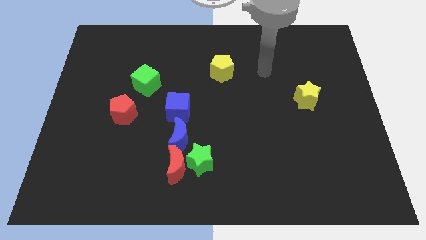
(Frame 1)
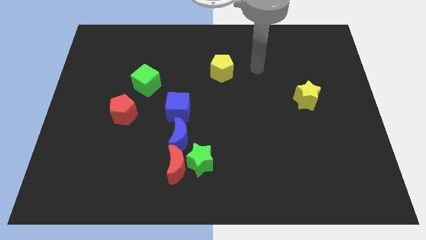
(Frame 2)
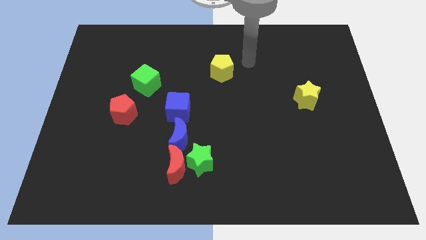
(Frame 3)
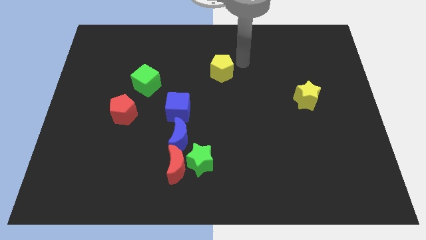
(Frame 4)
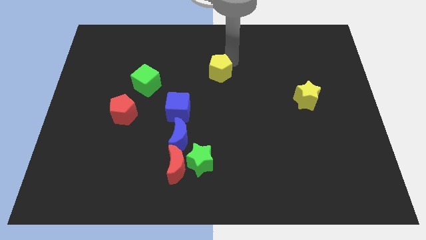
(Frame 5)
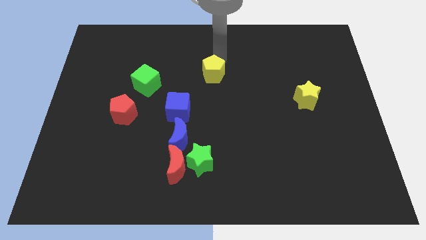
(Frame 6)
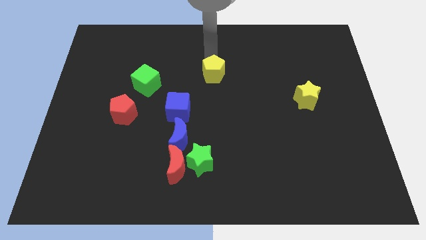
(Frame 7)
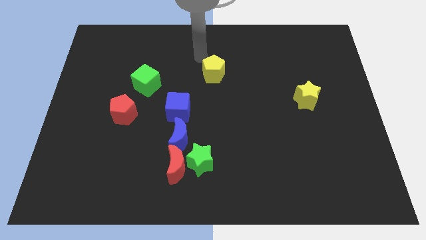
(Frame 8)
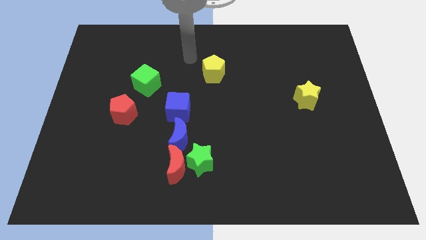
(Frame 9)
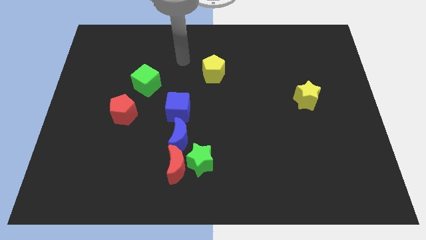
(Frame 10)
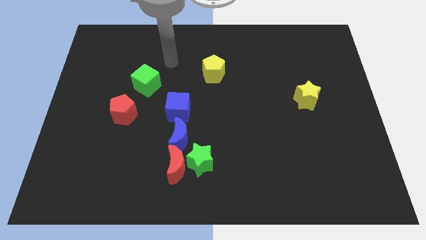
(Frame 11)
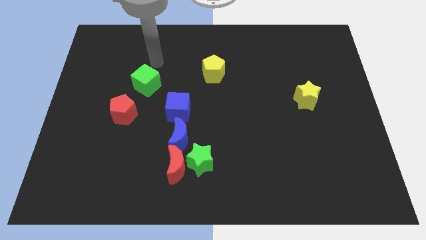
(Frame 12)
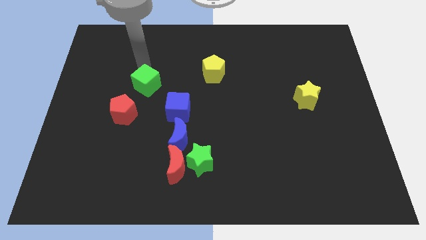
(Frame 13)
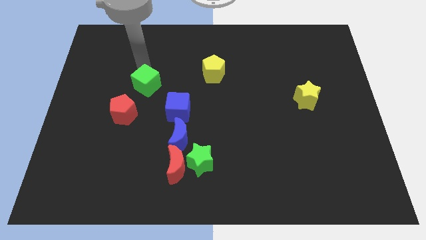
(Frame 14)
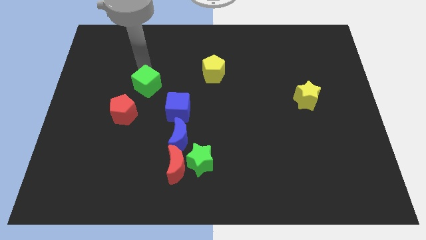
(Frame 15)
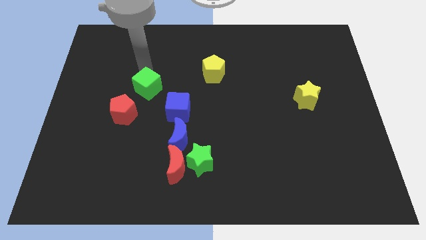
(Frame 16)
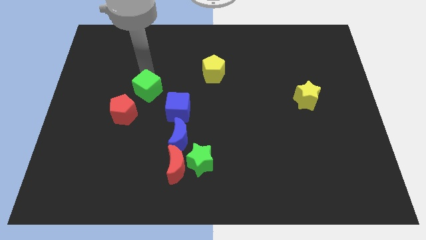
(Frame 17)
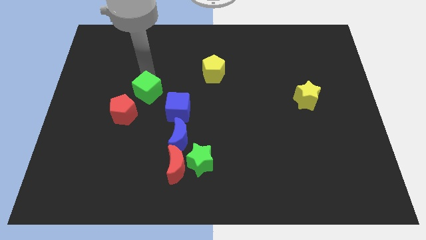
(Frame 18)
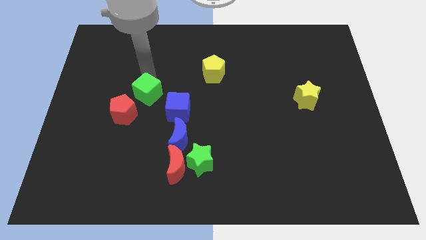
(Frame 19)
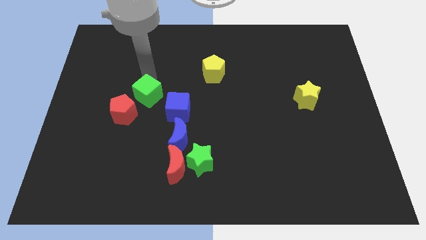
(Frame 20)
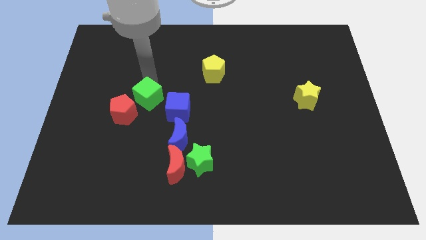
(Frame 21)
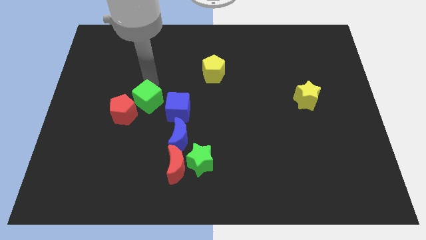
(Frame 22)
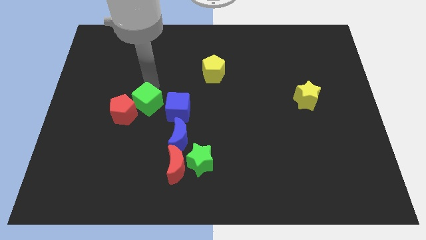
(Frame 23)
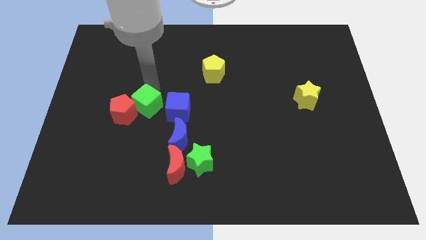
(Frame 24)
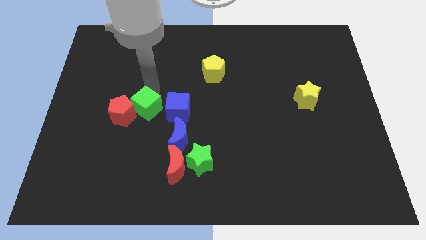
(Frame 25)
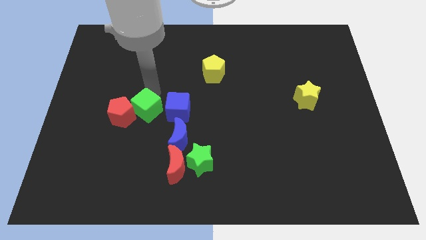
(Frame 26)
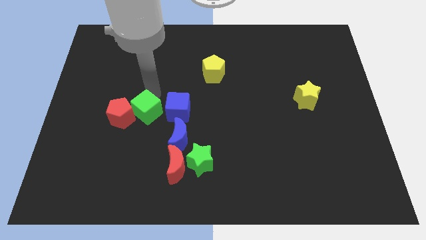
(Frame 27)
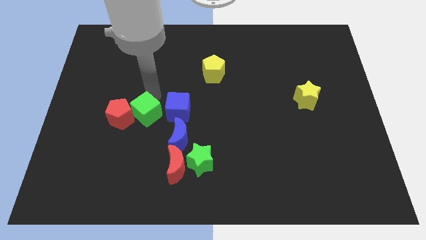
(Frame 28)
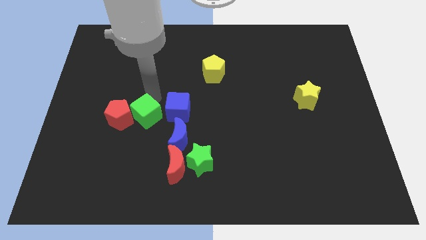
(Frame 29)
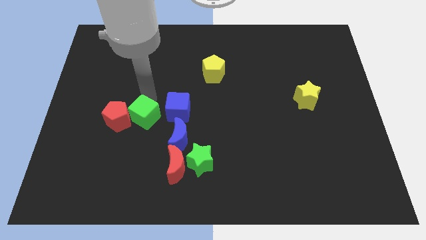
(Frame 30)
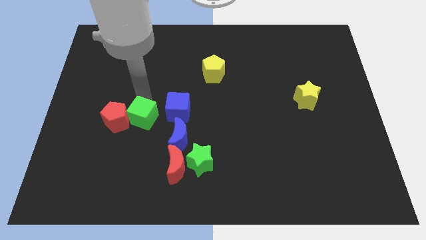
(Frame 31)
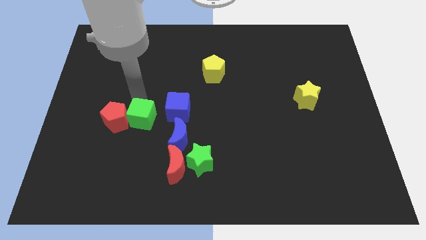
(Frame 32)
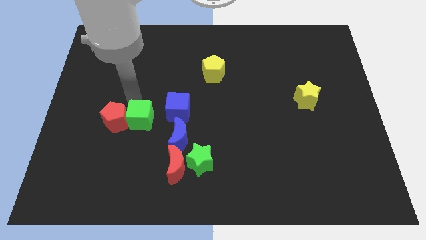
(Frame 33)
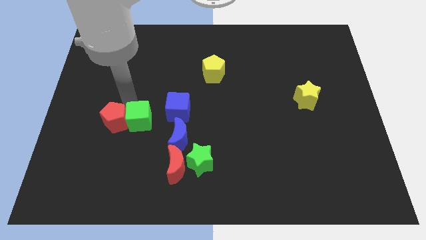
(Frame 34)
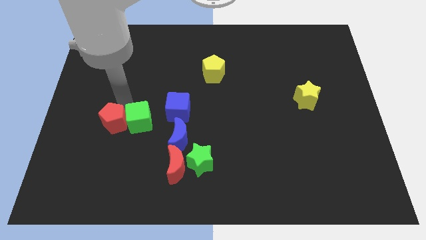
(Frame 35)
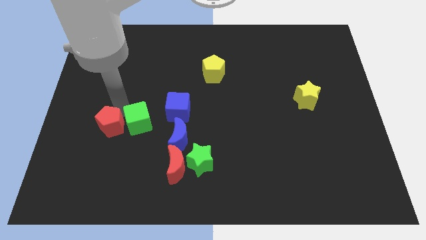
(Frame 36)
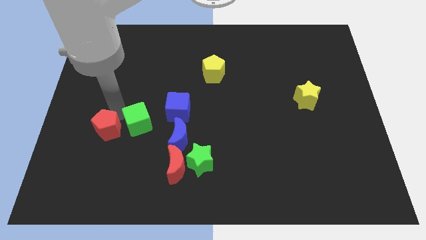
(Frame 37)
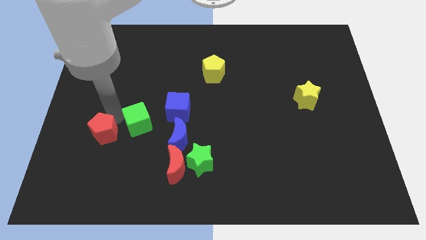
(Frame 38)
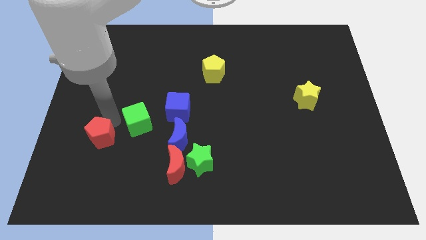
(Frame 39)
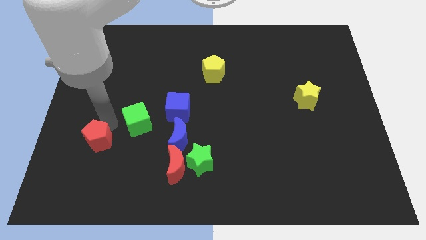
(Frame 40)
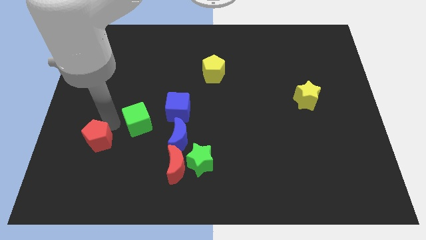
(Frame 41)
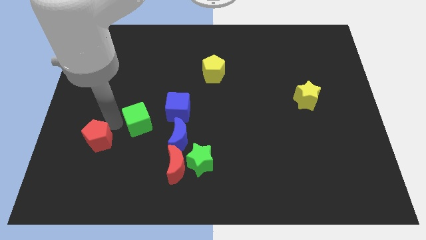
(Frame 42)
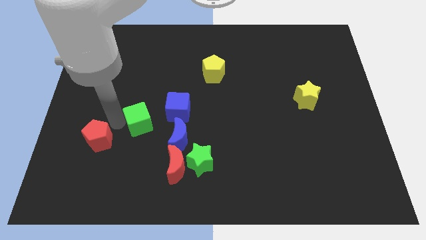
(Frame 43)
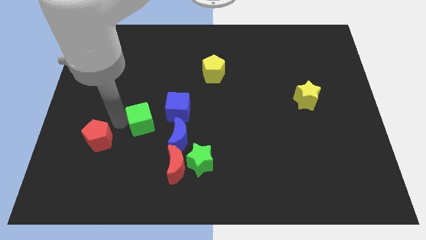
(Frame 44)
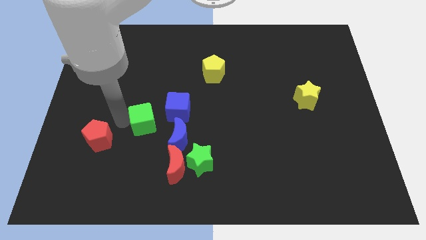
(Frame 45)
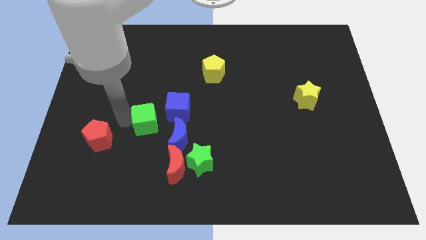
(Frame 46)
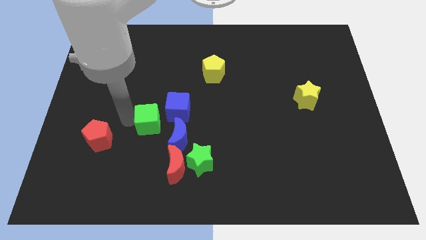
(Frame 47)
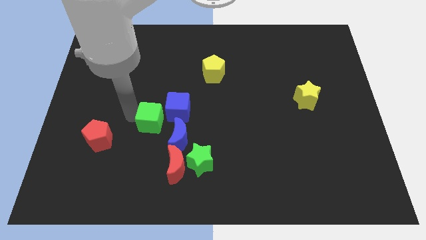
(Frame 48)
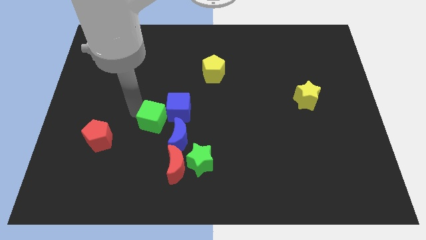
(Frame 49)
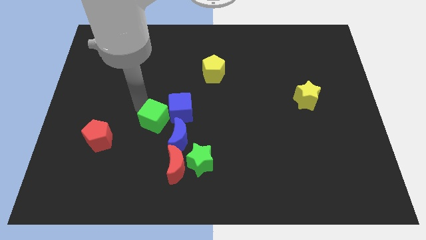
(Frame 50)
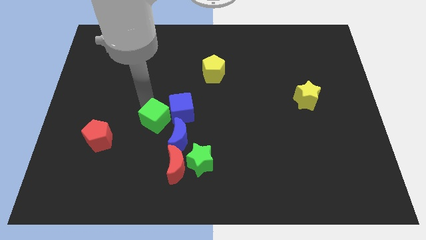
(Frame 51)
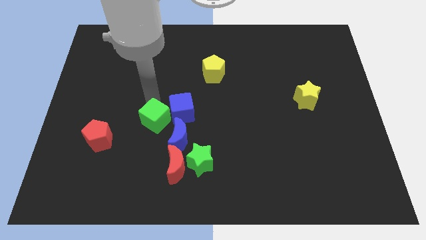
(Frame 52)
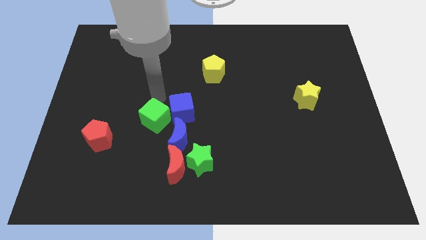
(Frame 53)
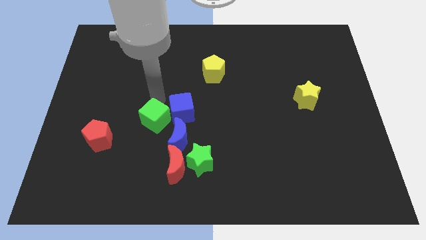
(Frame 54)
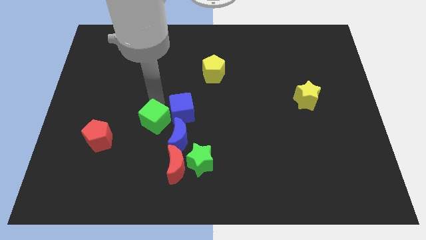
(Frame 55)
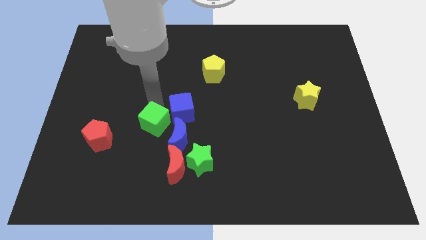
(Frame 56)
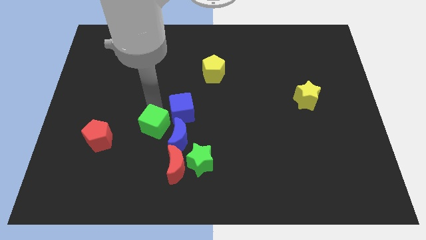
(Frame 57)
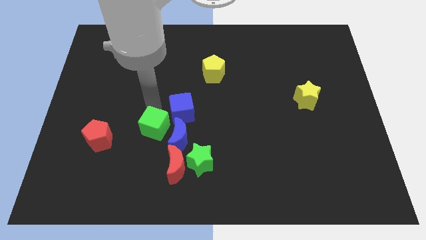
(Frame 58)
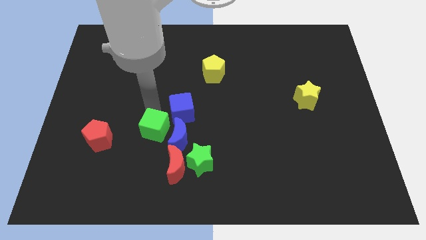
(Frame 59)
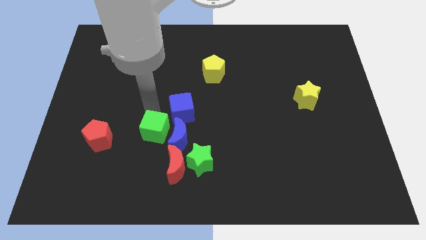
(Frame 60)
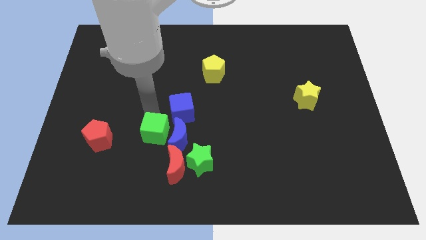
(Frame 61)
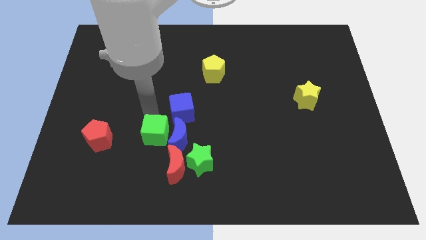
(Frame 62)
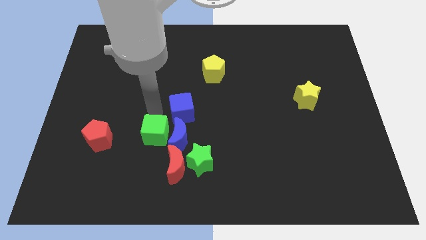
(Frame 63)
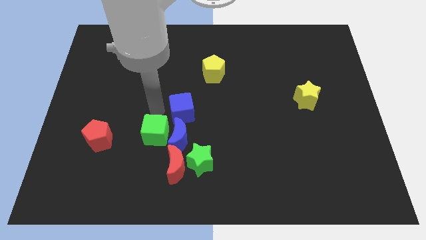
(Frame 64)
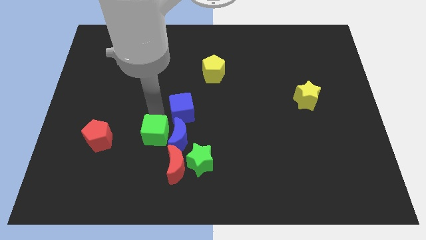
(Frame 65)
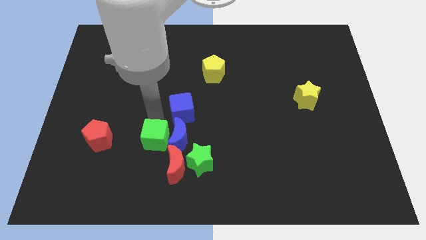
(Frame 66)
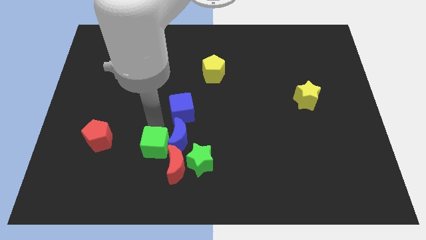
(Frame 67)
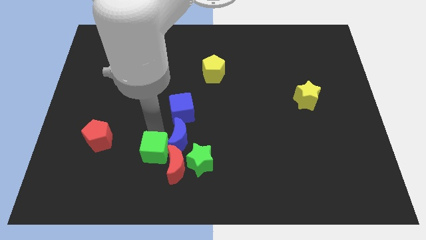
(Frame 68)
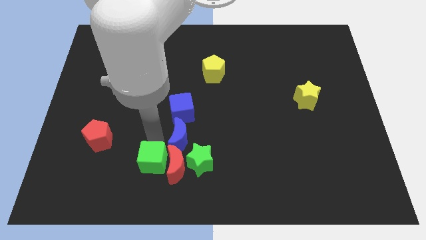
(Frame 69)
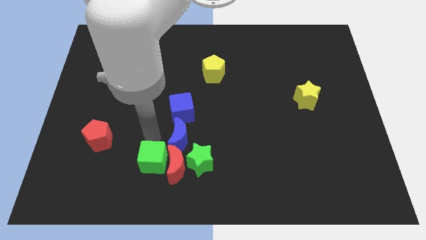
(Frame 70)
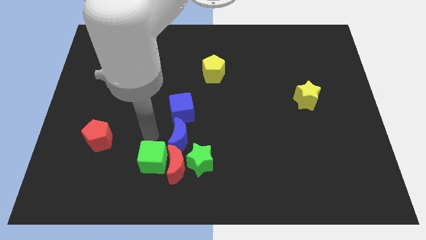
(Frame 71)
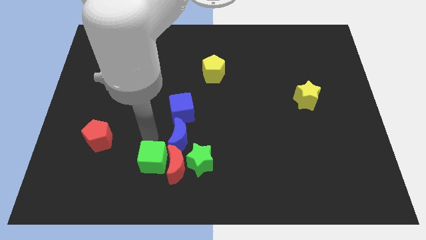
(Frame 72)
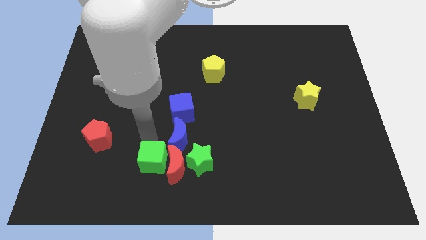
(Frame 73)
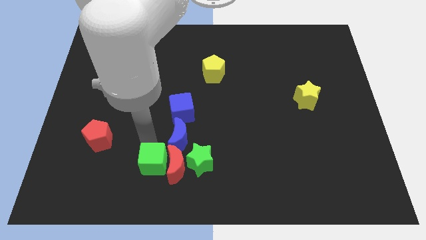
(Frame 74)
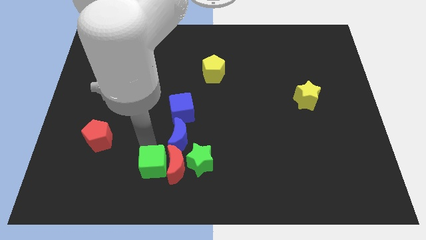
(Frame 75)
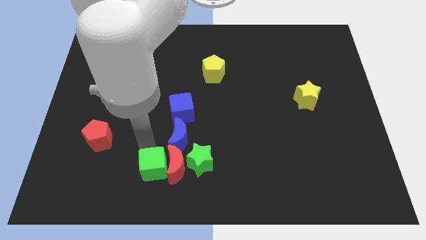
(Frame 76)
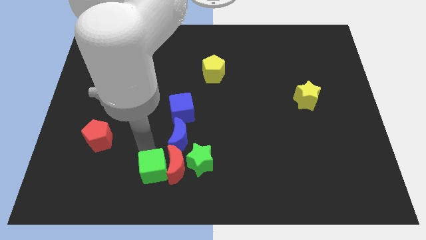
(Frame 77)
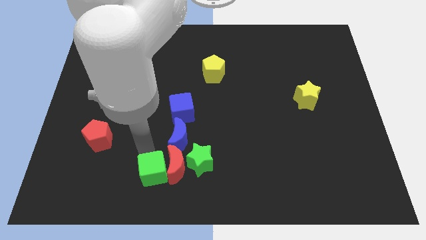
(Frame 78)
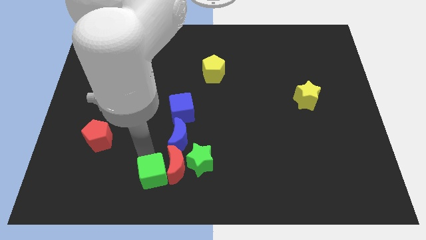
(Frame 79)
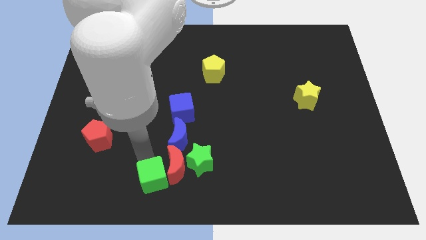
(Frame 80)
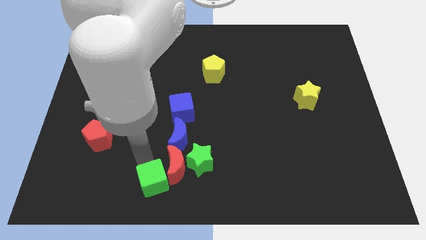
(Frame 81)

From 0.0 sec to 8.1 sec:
slide the green cube to the bottom
